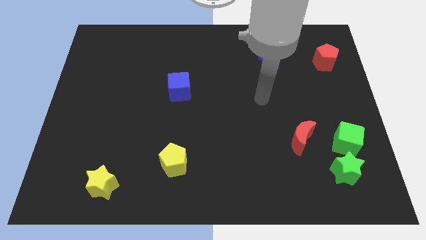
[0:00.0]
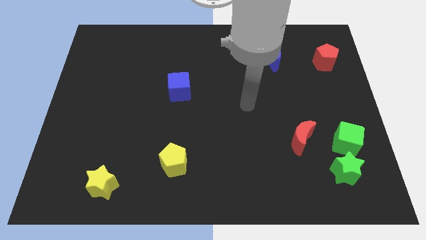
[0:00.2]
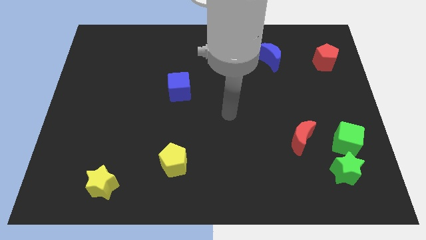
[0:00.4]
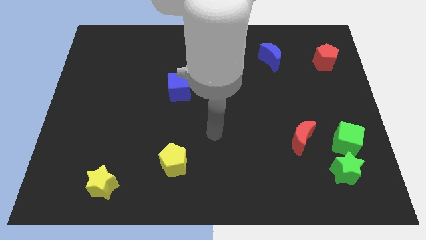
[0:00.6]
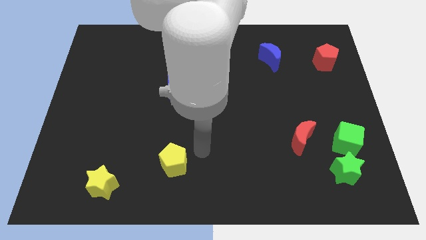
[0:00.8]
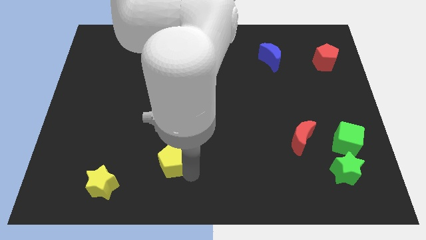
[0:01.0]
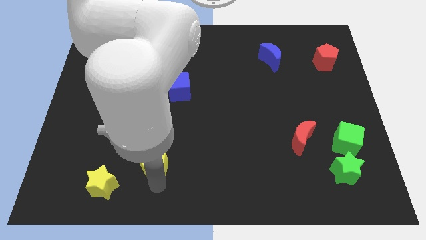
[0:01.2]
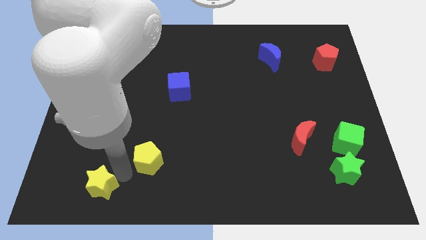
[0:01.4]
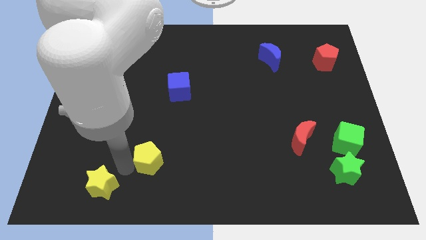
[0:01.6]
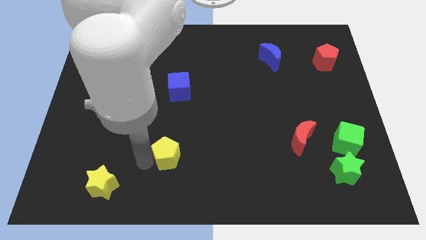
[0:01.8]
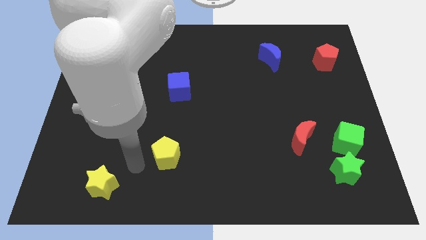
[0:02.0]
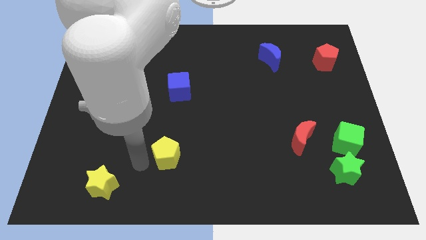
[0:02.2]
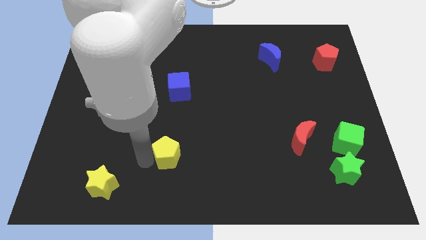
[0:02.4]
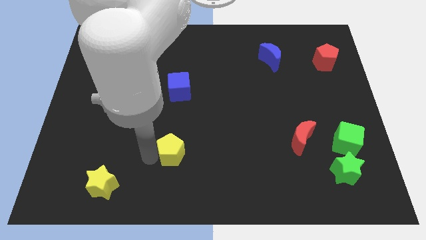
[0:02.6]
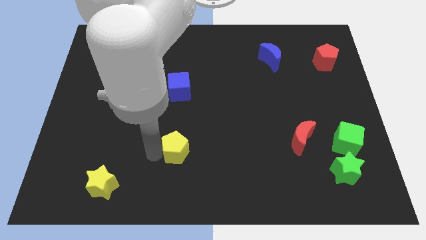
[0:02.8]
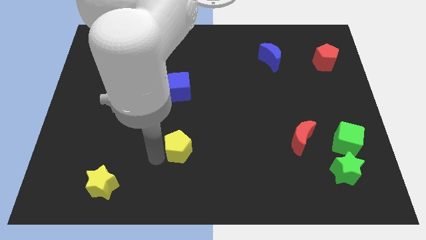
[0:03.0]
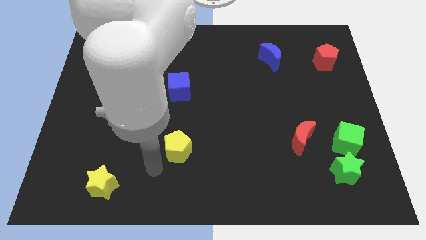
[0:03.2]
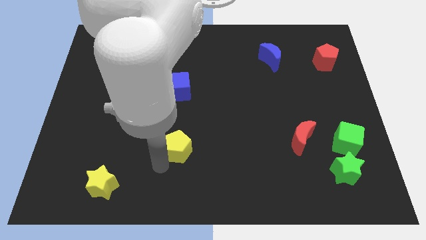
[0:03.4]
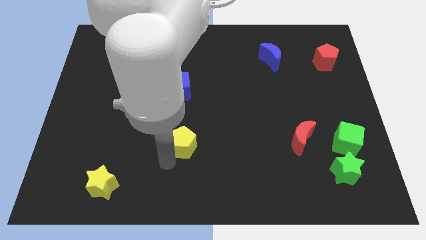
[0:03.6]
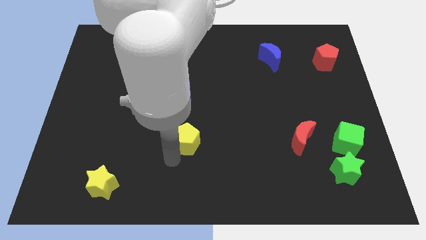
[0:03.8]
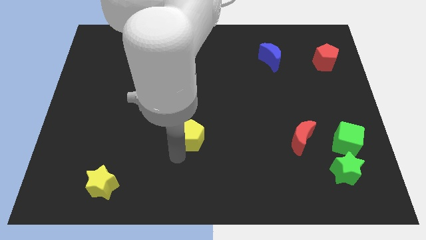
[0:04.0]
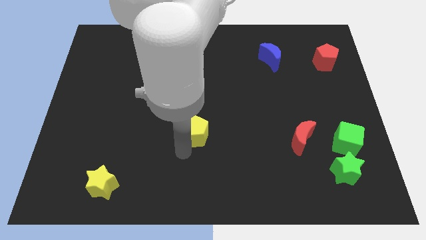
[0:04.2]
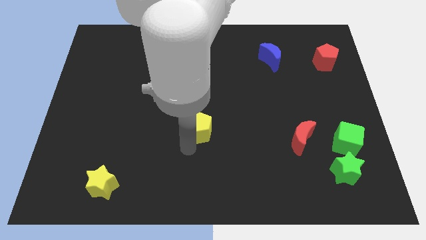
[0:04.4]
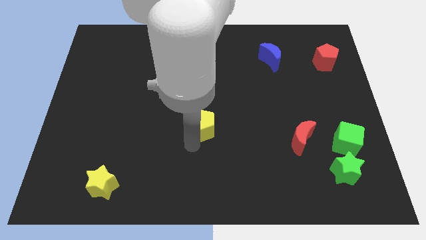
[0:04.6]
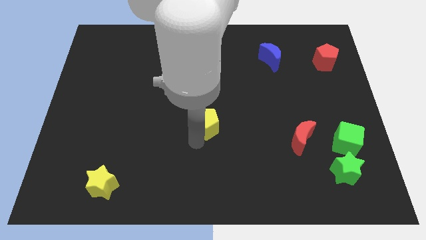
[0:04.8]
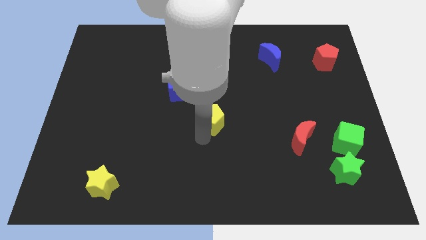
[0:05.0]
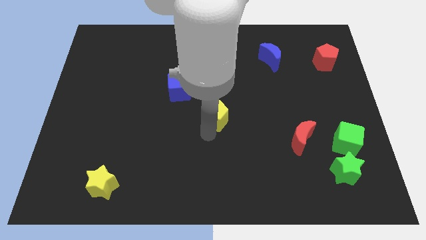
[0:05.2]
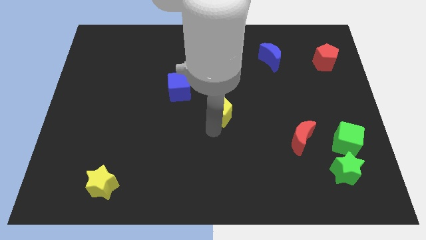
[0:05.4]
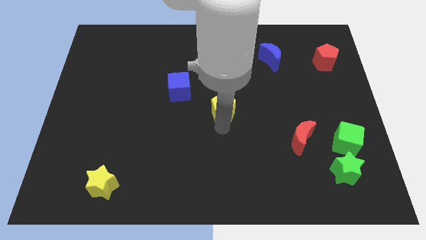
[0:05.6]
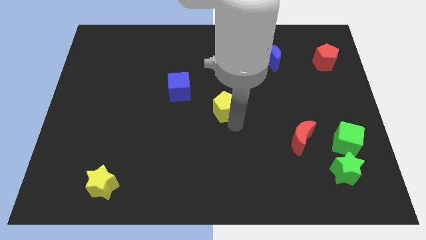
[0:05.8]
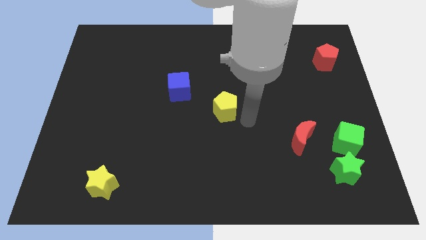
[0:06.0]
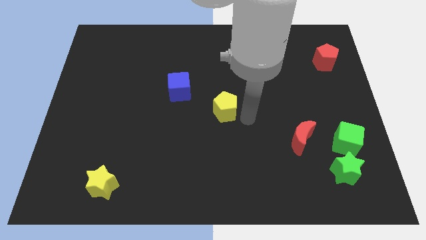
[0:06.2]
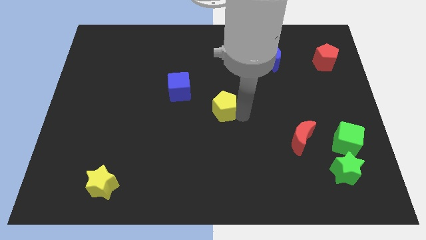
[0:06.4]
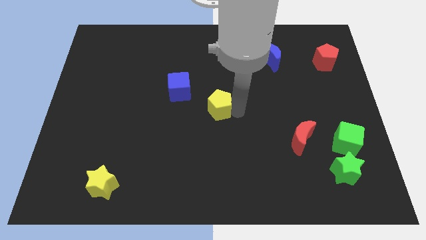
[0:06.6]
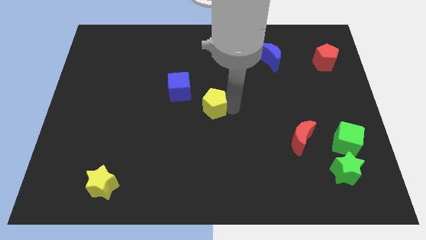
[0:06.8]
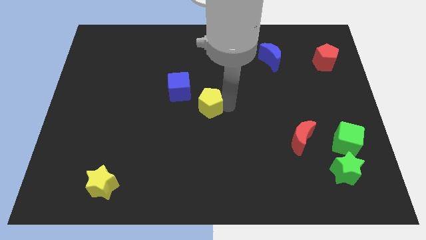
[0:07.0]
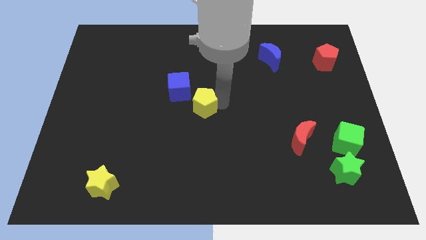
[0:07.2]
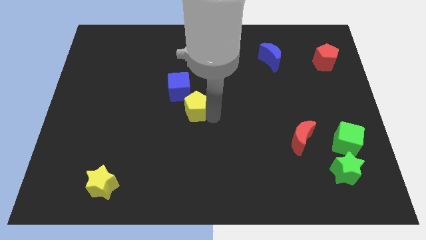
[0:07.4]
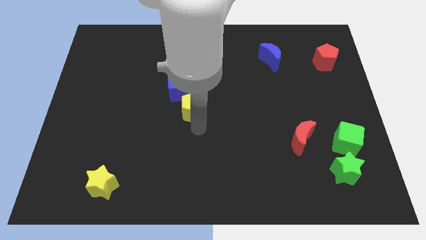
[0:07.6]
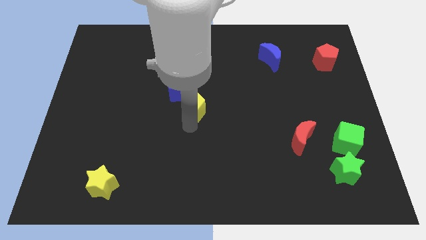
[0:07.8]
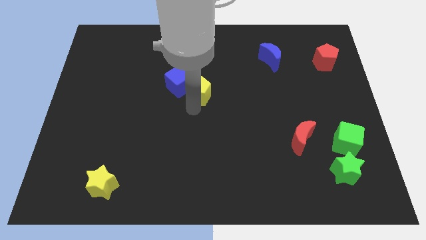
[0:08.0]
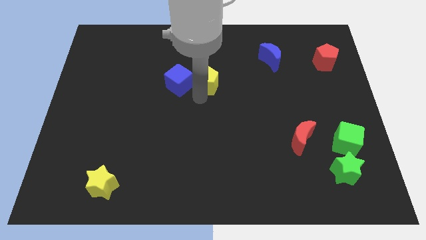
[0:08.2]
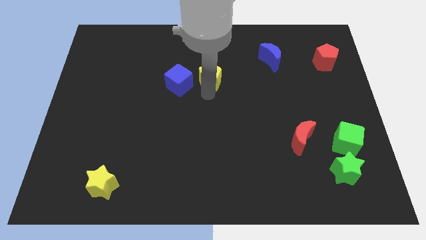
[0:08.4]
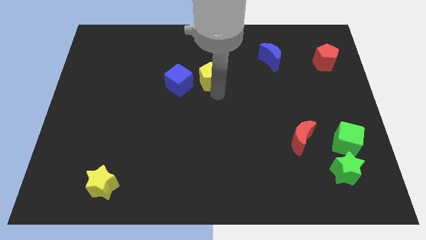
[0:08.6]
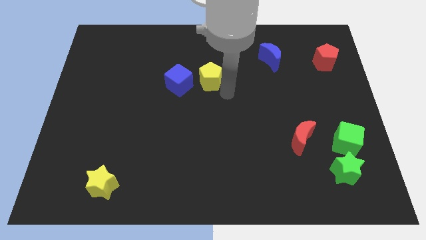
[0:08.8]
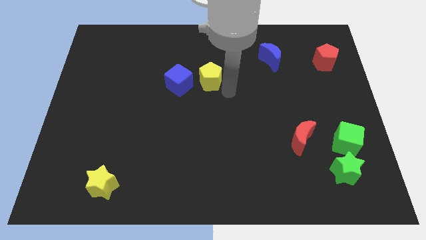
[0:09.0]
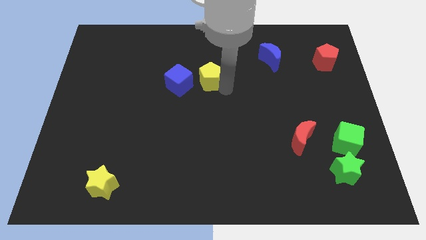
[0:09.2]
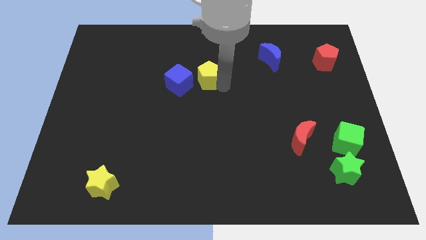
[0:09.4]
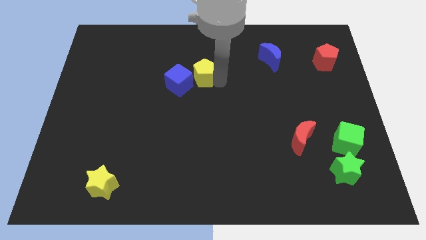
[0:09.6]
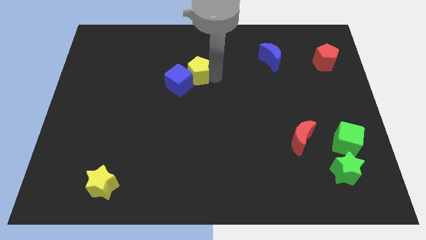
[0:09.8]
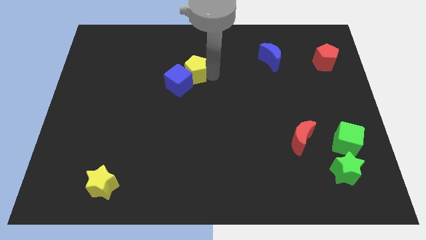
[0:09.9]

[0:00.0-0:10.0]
push the yellow pentagon to the top side of the blue cube

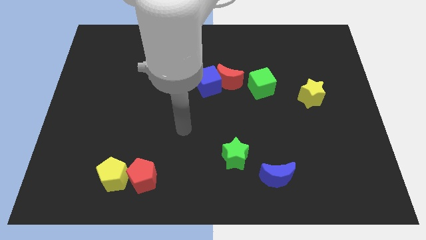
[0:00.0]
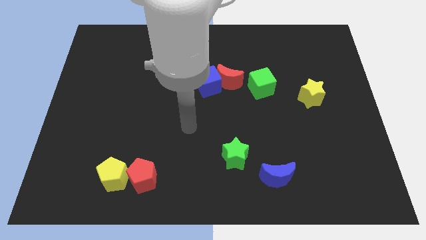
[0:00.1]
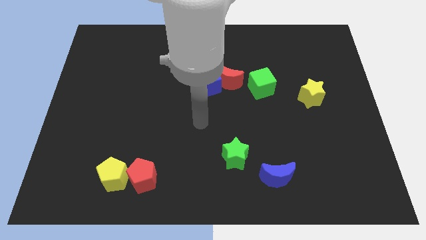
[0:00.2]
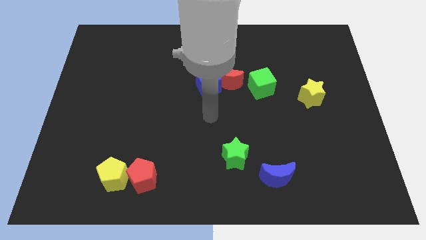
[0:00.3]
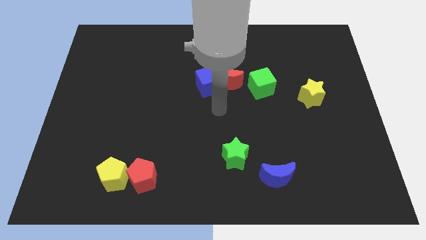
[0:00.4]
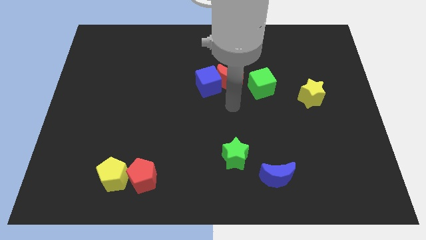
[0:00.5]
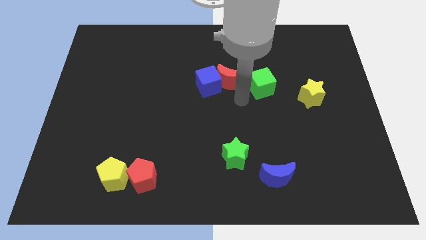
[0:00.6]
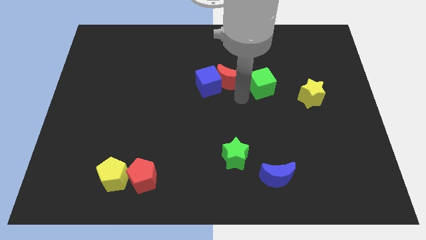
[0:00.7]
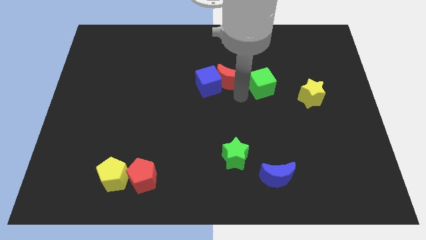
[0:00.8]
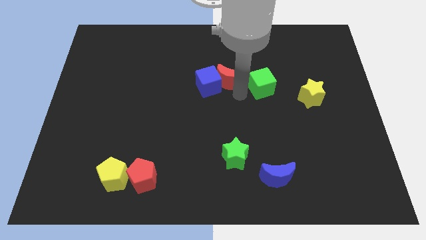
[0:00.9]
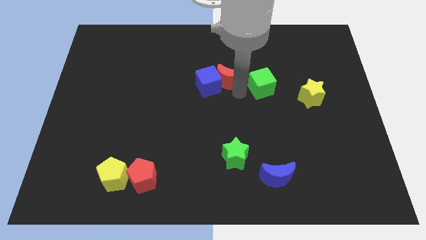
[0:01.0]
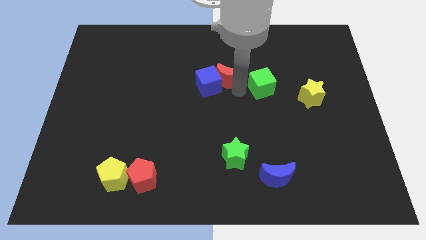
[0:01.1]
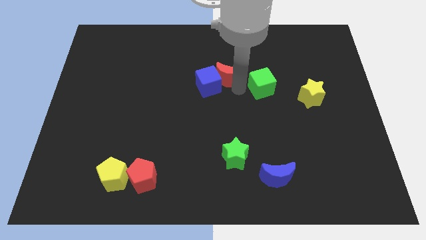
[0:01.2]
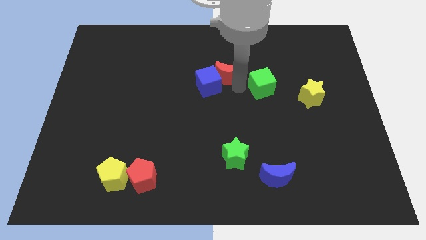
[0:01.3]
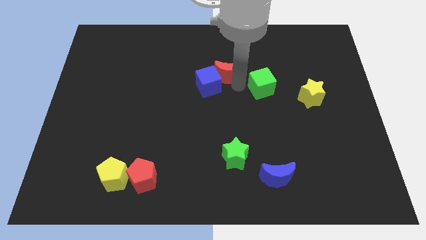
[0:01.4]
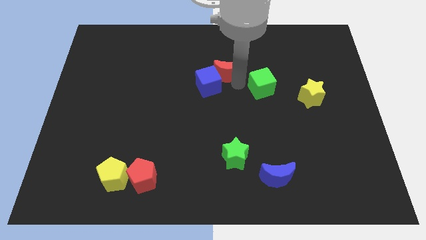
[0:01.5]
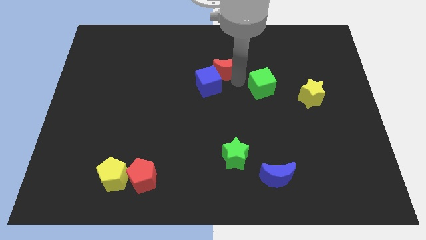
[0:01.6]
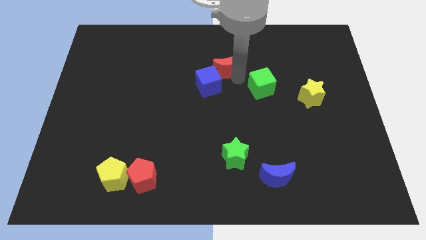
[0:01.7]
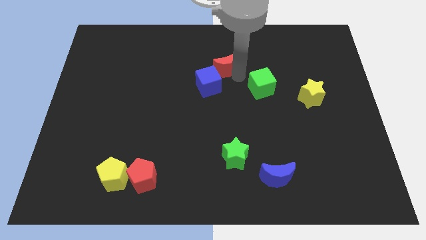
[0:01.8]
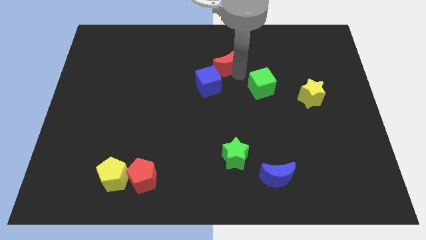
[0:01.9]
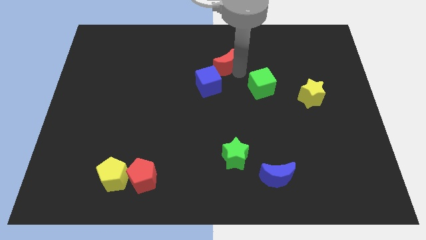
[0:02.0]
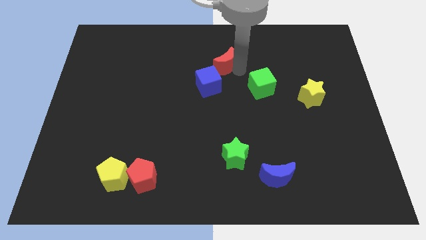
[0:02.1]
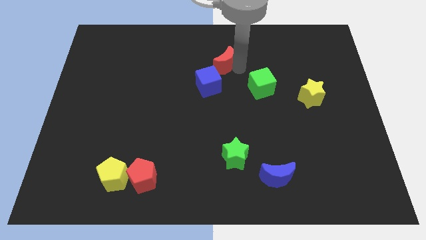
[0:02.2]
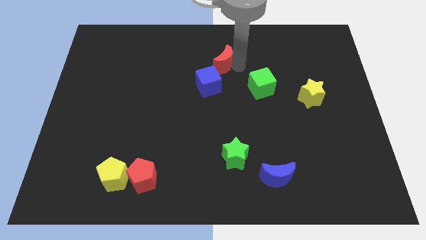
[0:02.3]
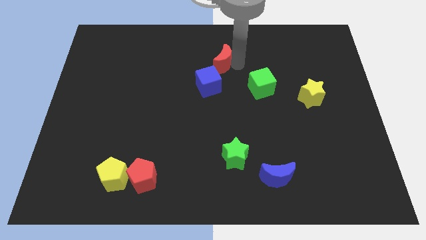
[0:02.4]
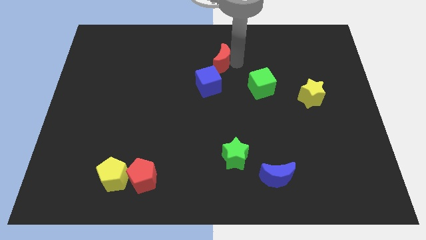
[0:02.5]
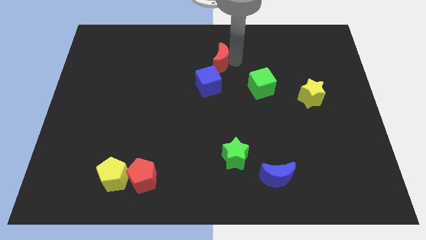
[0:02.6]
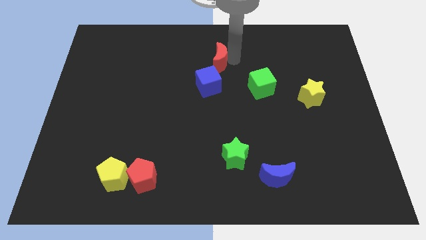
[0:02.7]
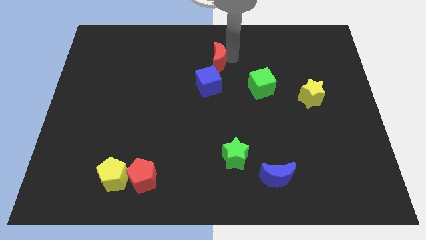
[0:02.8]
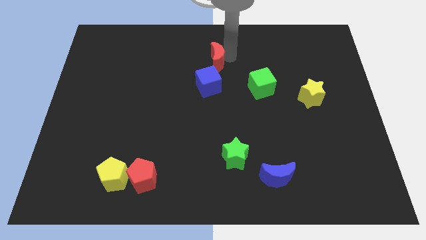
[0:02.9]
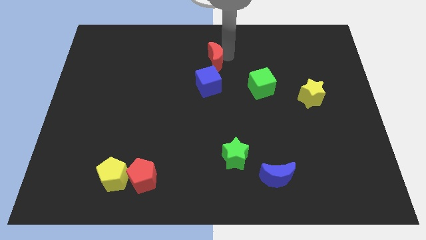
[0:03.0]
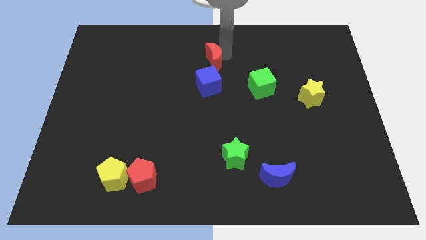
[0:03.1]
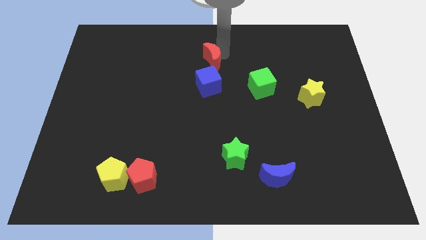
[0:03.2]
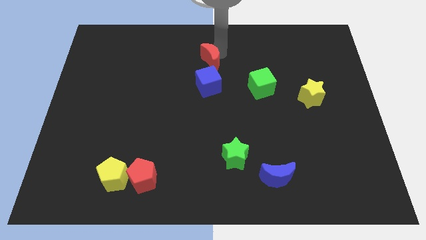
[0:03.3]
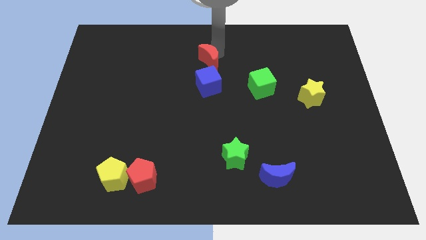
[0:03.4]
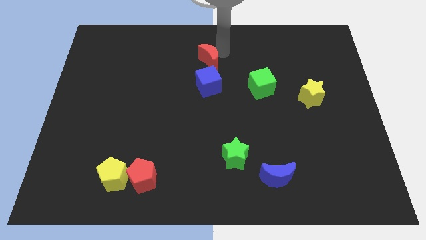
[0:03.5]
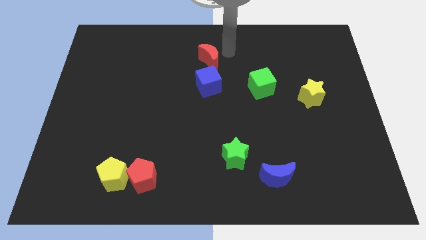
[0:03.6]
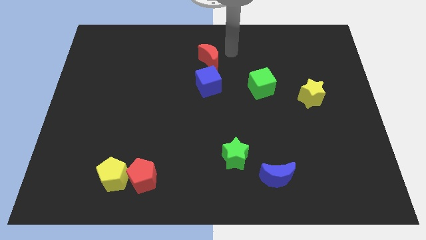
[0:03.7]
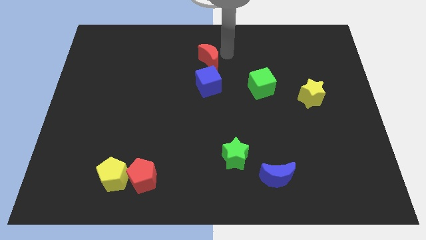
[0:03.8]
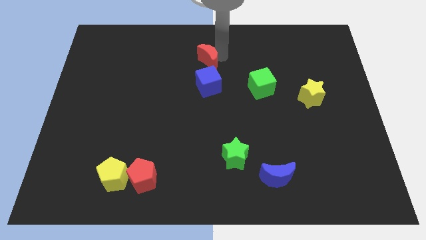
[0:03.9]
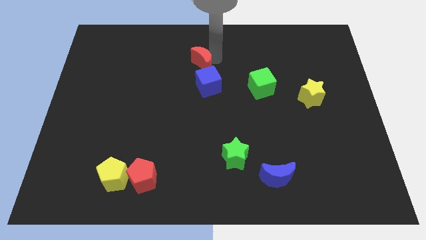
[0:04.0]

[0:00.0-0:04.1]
put the red moon to the top left side of the blue cube
